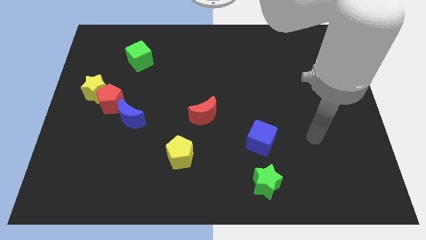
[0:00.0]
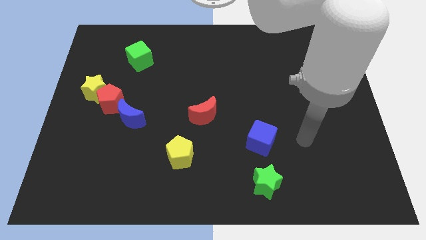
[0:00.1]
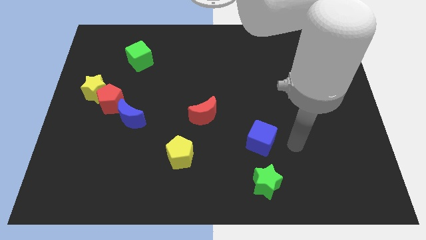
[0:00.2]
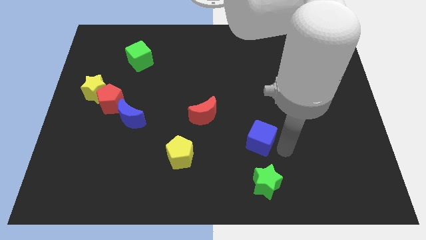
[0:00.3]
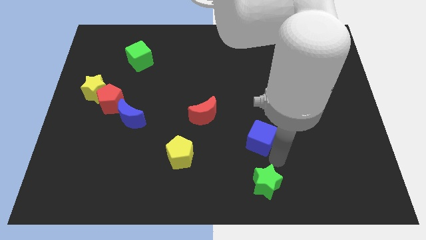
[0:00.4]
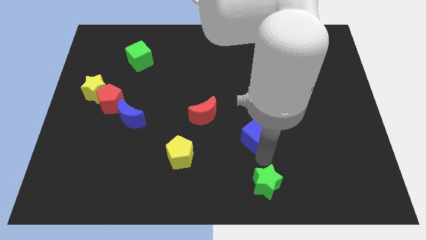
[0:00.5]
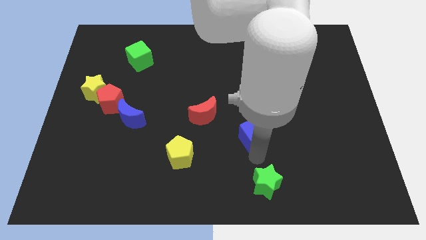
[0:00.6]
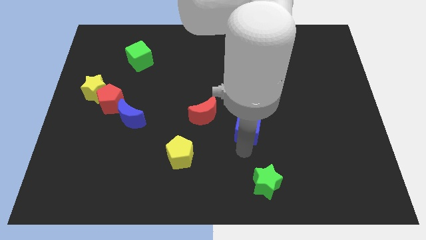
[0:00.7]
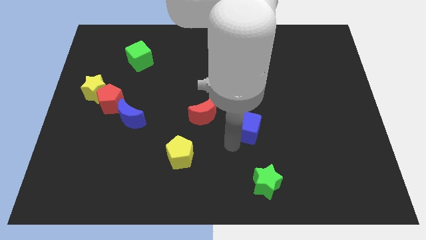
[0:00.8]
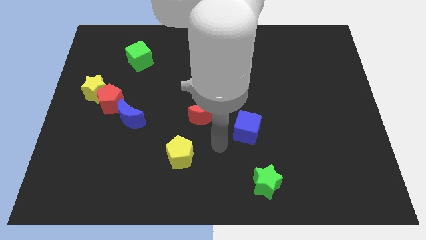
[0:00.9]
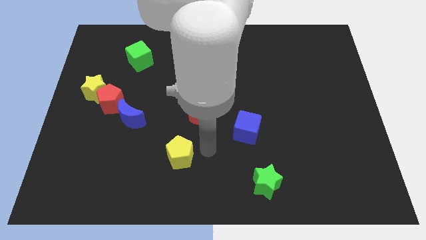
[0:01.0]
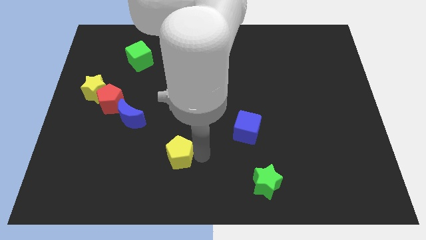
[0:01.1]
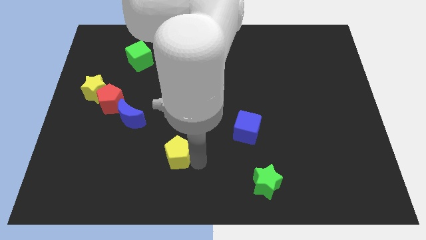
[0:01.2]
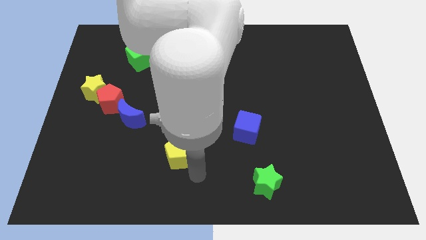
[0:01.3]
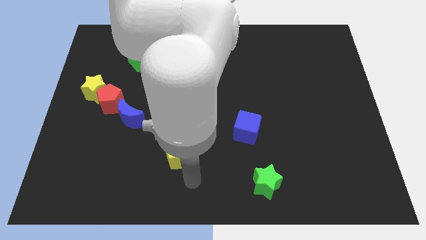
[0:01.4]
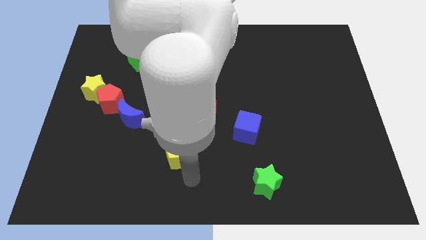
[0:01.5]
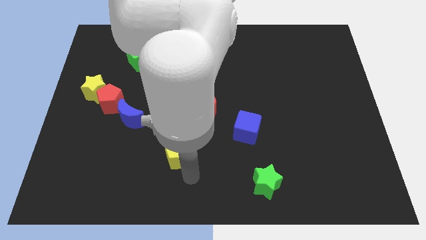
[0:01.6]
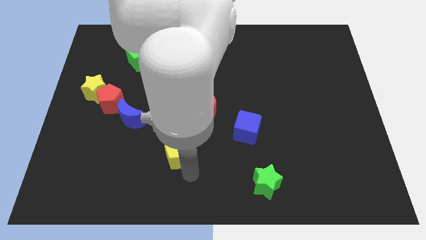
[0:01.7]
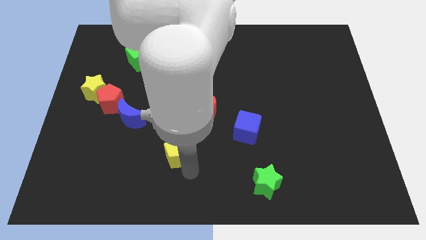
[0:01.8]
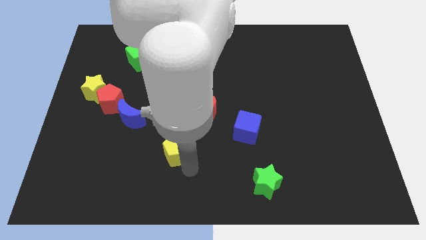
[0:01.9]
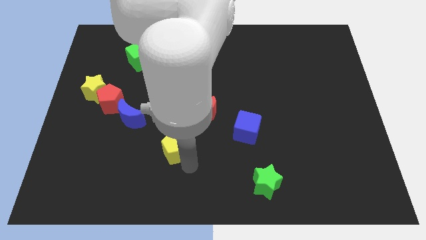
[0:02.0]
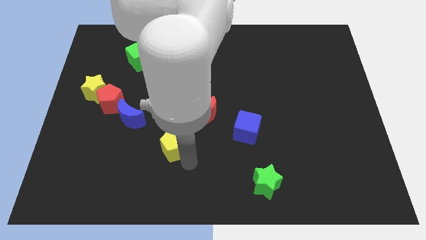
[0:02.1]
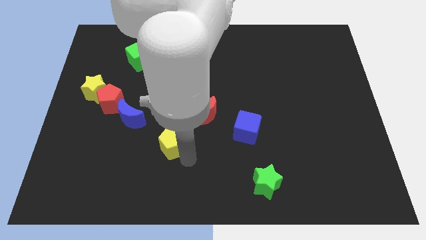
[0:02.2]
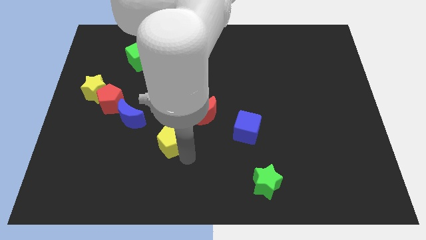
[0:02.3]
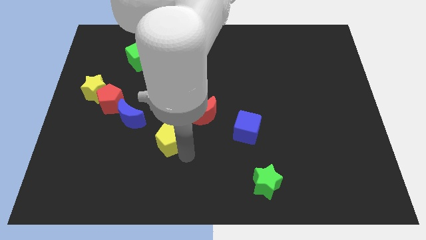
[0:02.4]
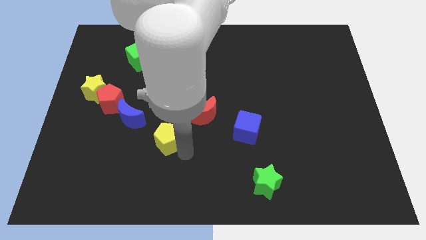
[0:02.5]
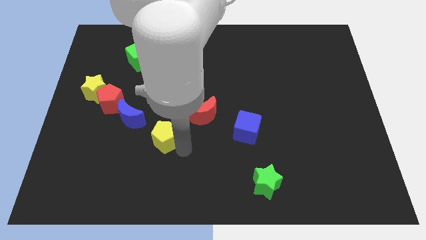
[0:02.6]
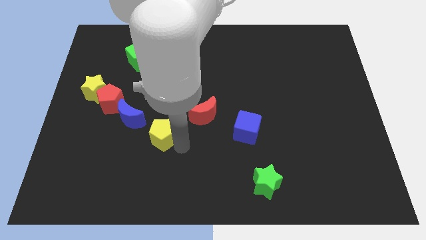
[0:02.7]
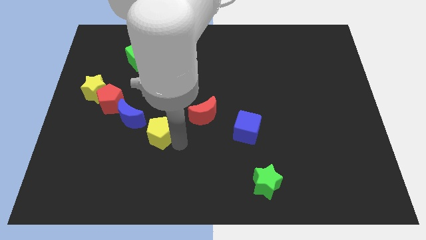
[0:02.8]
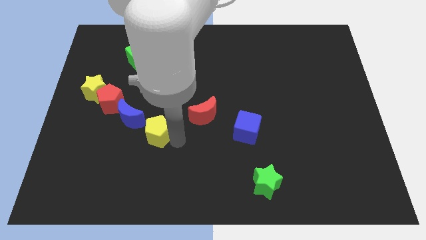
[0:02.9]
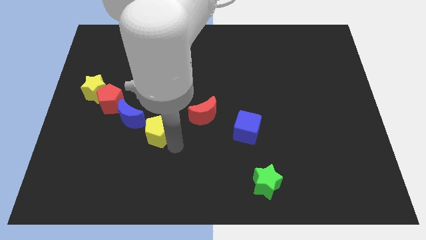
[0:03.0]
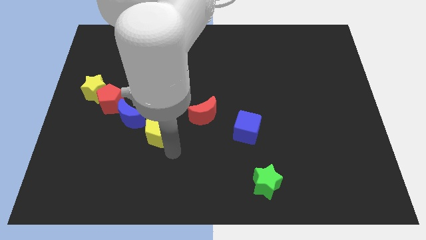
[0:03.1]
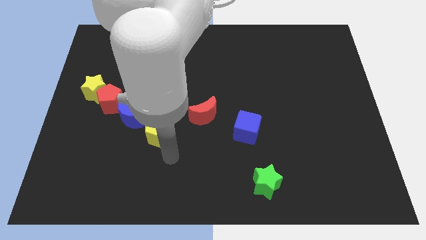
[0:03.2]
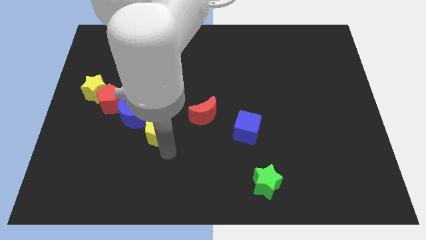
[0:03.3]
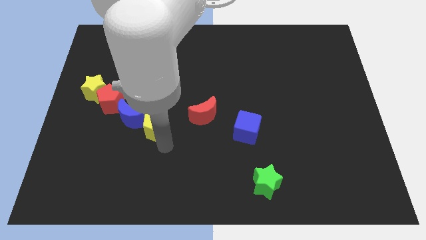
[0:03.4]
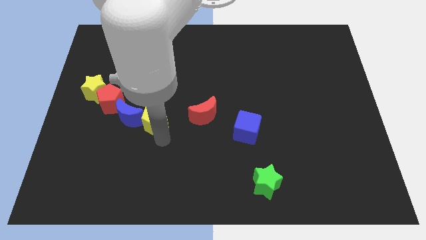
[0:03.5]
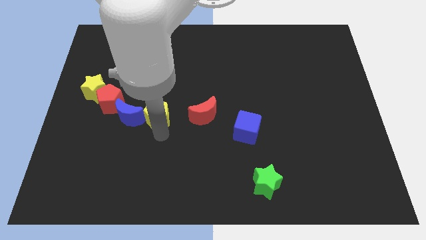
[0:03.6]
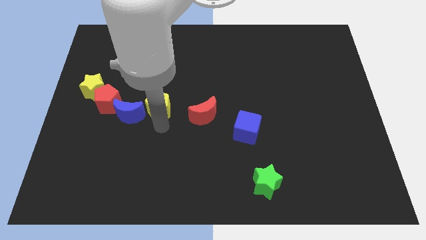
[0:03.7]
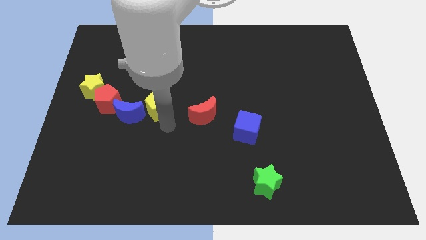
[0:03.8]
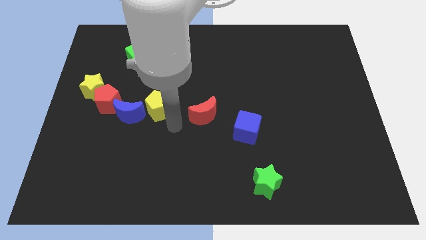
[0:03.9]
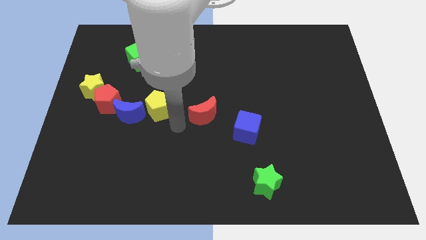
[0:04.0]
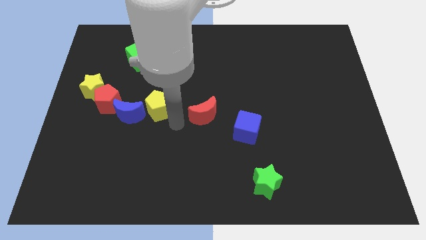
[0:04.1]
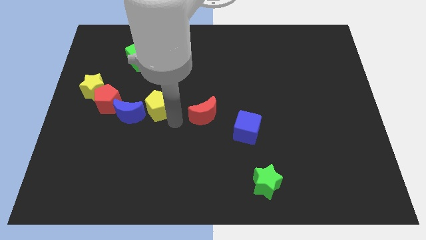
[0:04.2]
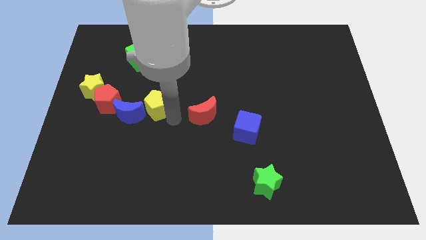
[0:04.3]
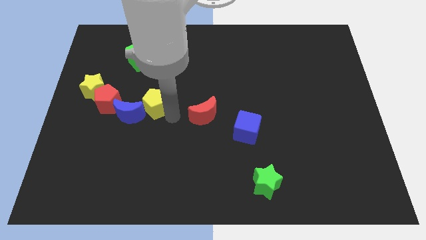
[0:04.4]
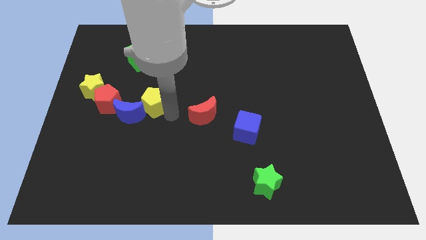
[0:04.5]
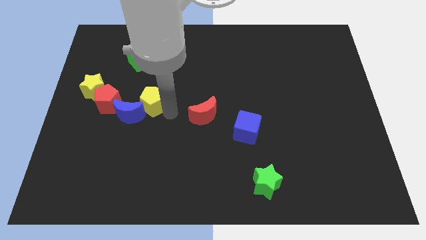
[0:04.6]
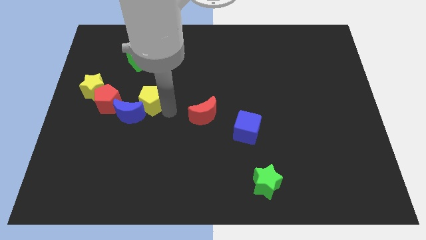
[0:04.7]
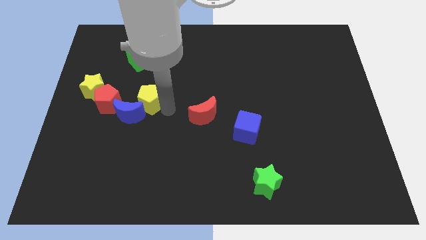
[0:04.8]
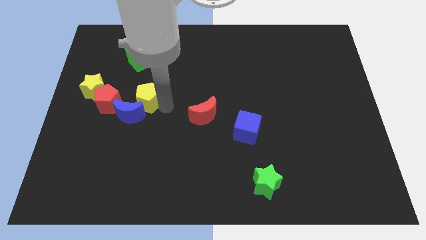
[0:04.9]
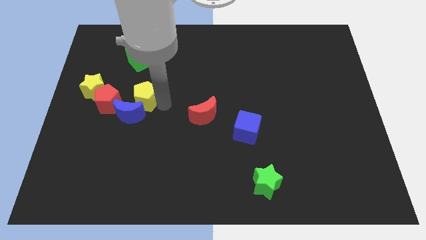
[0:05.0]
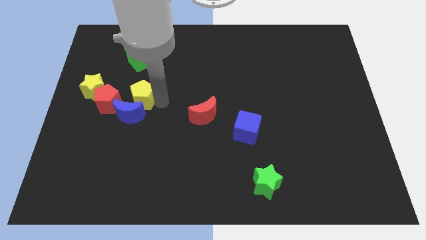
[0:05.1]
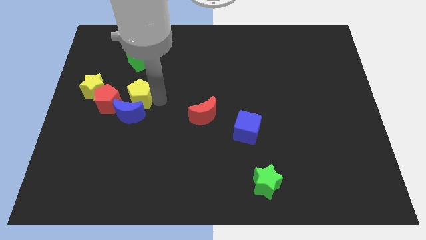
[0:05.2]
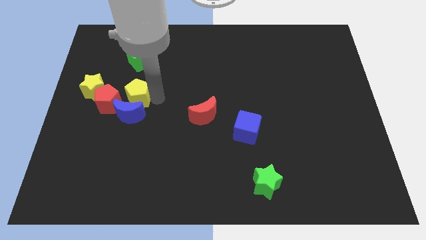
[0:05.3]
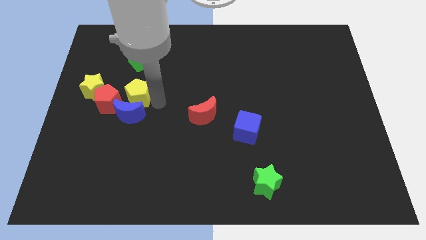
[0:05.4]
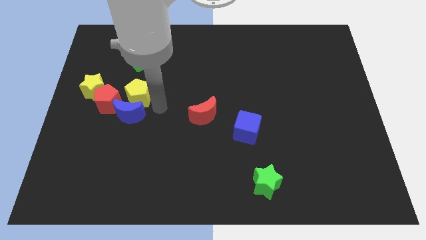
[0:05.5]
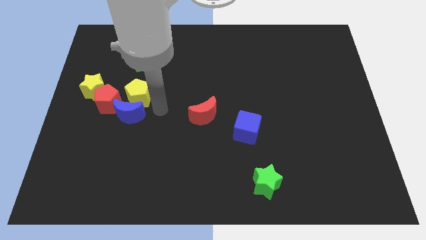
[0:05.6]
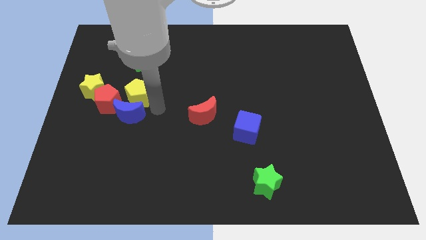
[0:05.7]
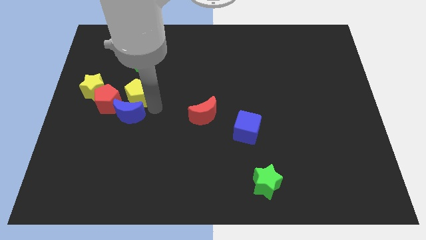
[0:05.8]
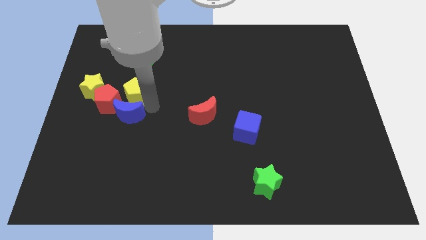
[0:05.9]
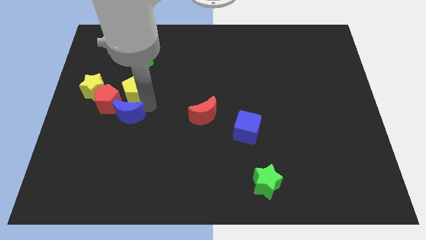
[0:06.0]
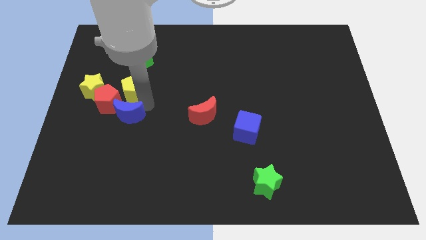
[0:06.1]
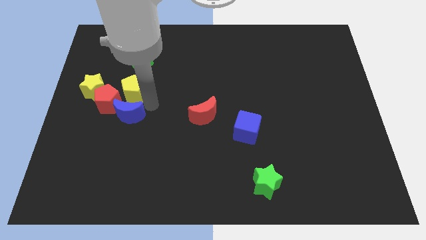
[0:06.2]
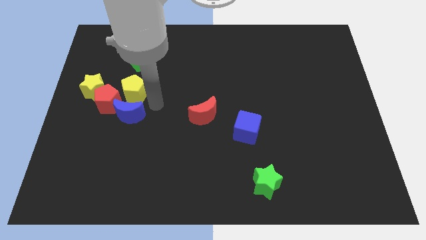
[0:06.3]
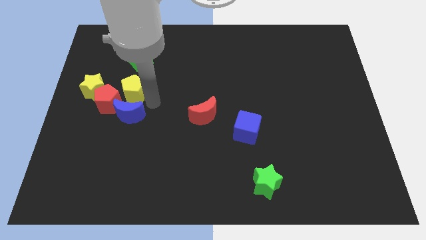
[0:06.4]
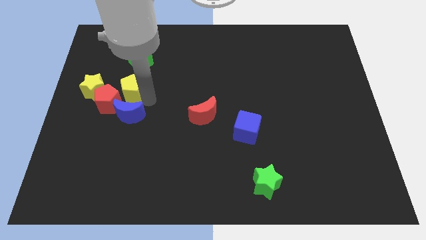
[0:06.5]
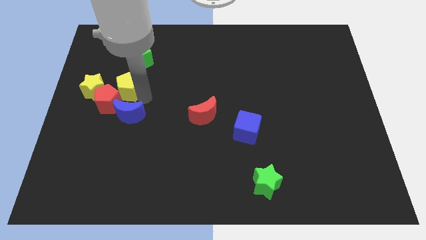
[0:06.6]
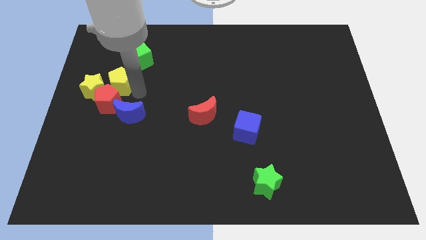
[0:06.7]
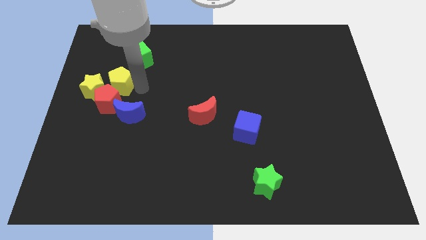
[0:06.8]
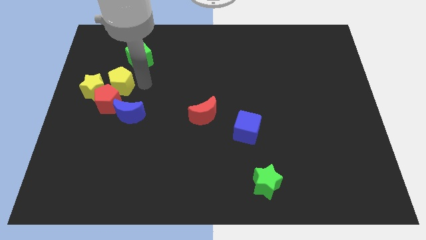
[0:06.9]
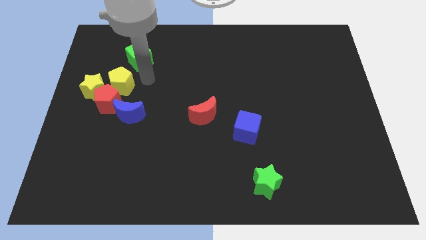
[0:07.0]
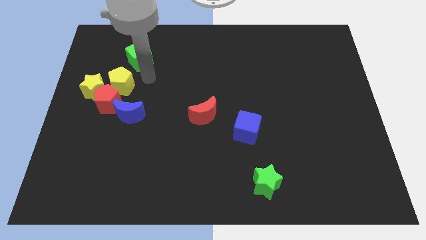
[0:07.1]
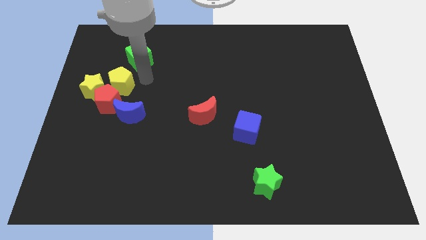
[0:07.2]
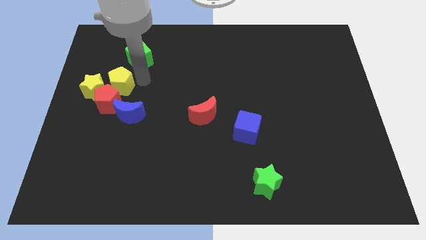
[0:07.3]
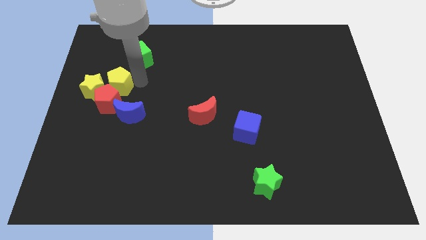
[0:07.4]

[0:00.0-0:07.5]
push the yellow pentagon close to the yellow star

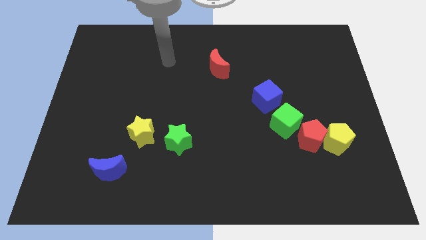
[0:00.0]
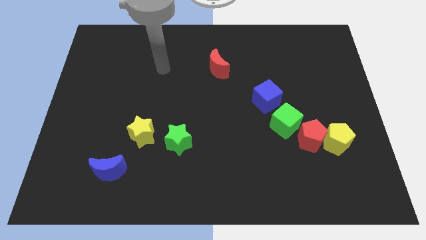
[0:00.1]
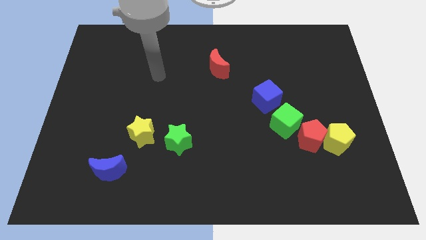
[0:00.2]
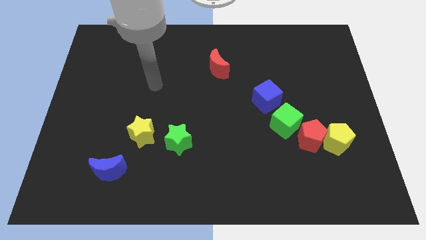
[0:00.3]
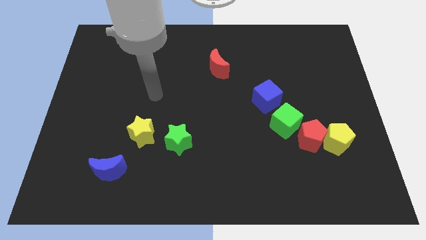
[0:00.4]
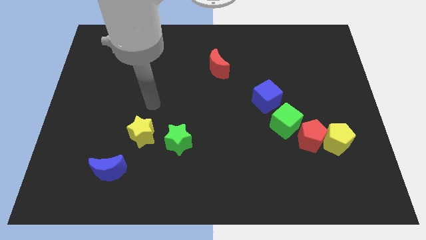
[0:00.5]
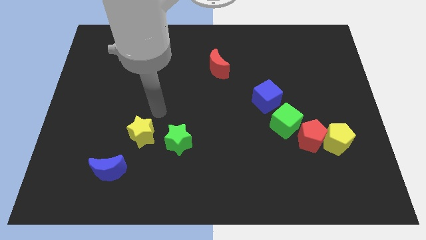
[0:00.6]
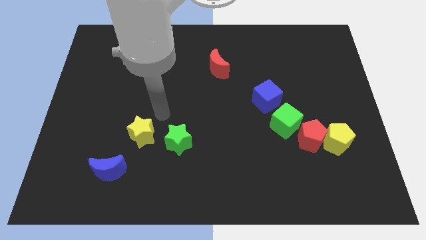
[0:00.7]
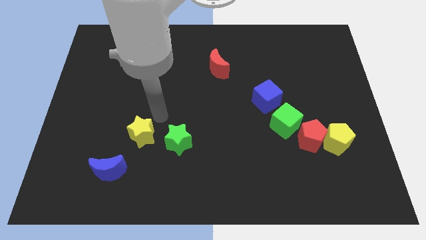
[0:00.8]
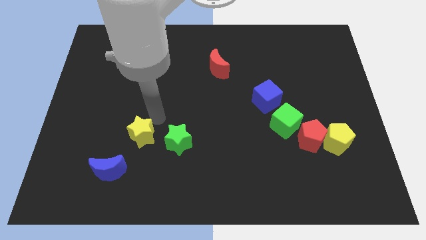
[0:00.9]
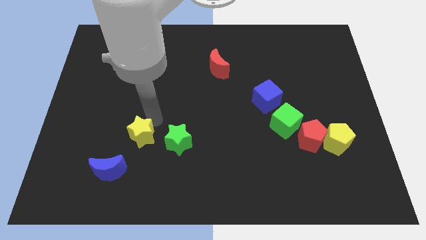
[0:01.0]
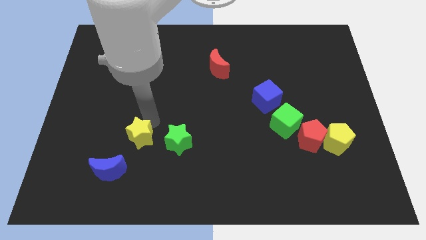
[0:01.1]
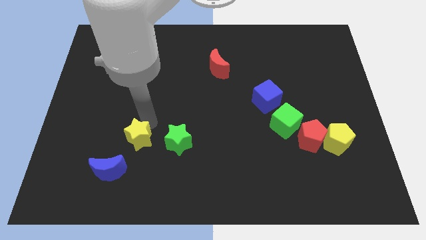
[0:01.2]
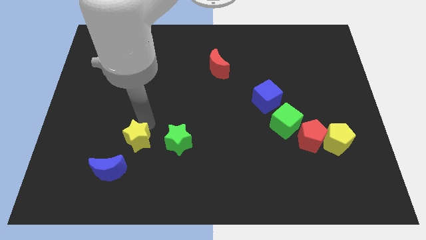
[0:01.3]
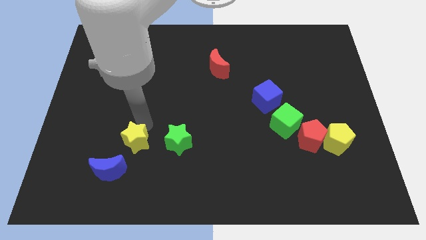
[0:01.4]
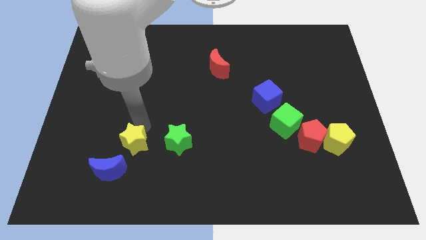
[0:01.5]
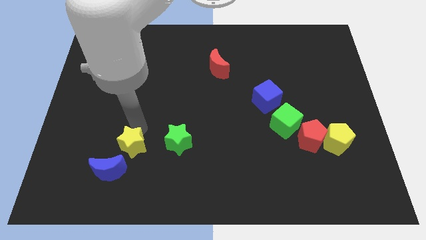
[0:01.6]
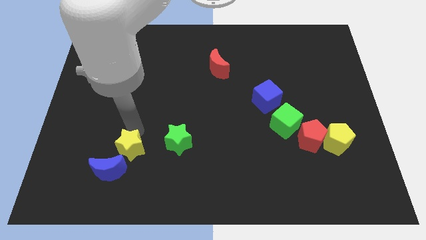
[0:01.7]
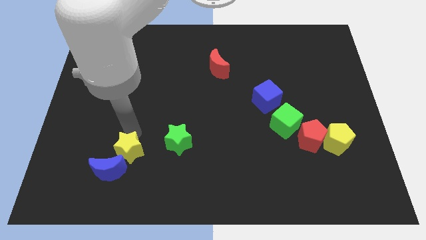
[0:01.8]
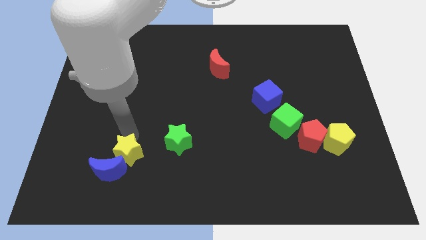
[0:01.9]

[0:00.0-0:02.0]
move the yellow star to the blue moon
